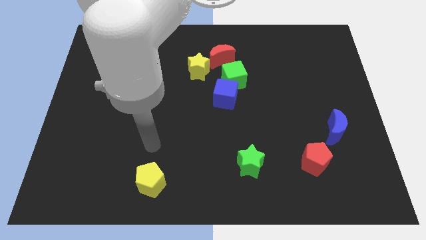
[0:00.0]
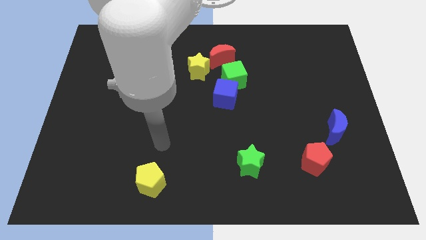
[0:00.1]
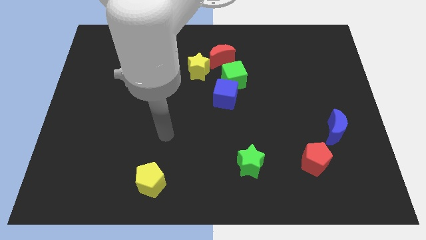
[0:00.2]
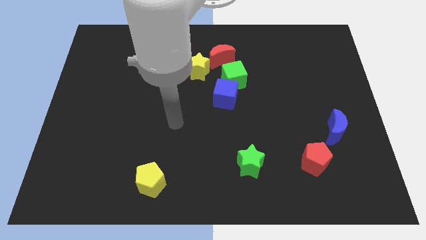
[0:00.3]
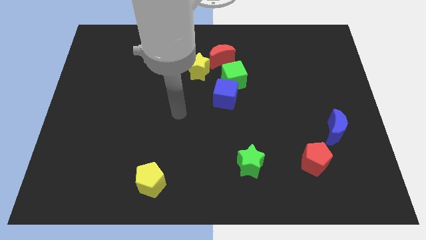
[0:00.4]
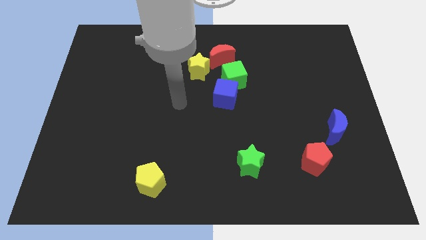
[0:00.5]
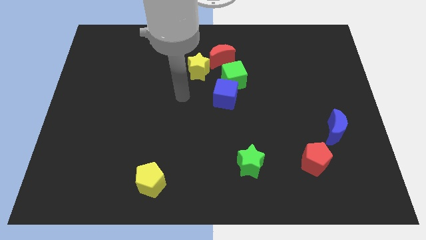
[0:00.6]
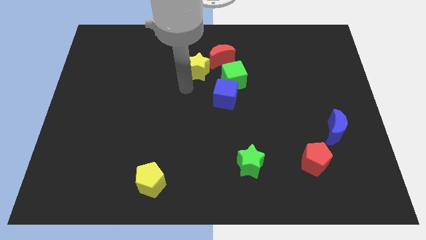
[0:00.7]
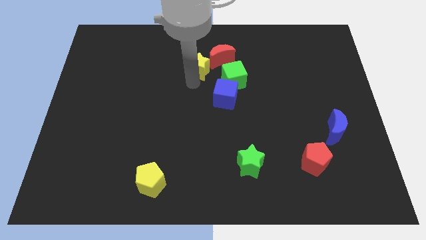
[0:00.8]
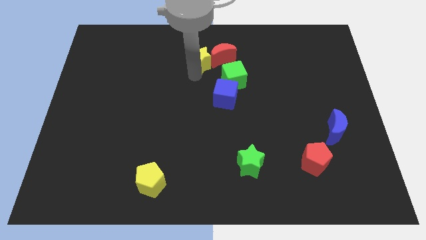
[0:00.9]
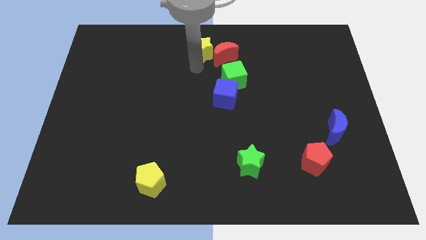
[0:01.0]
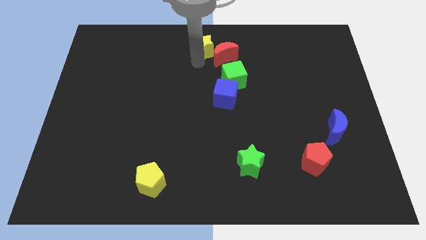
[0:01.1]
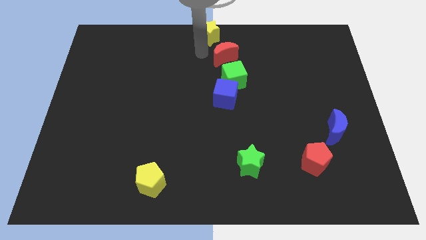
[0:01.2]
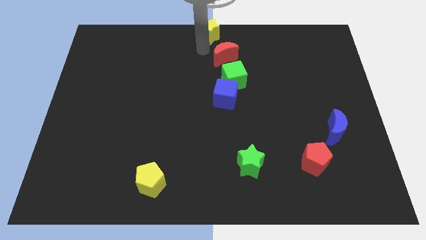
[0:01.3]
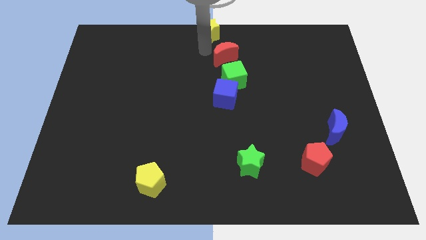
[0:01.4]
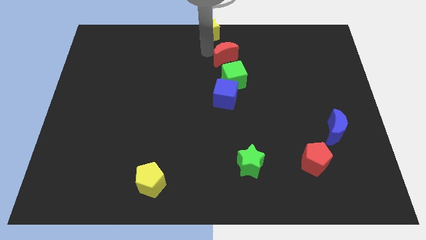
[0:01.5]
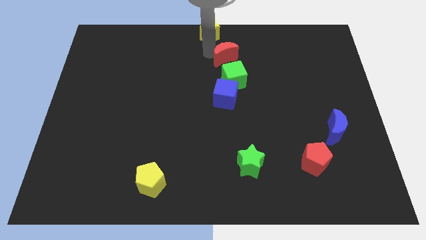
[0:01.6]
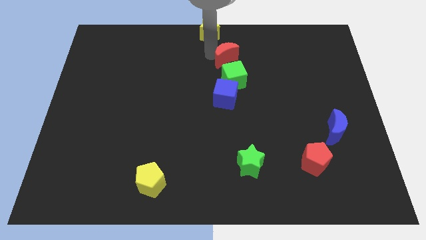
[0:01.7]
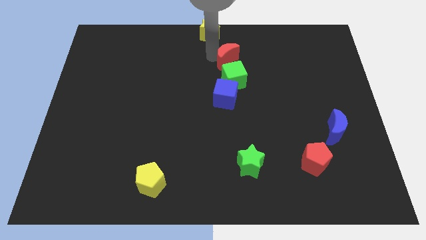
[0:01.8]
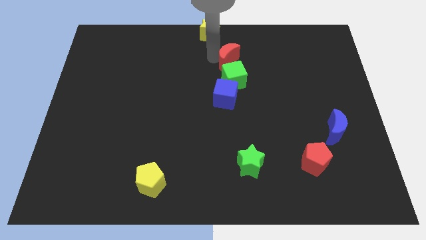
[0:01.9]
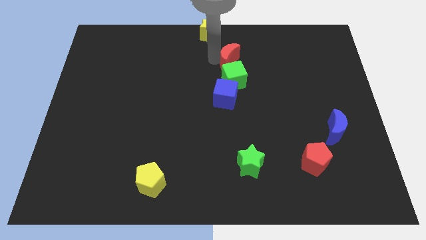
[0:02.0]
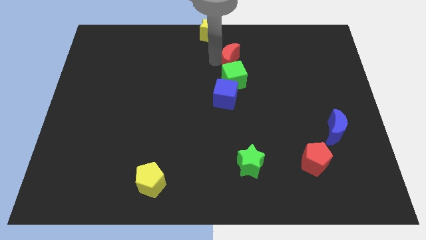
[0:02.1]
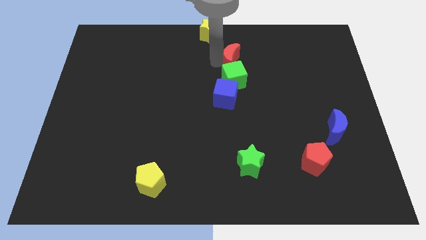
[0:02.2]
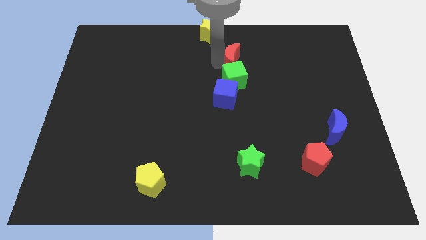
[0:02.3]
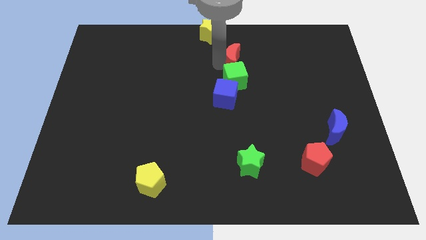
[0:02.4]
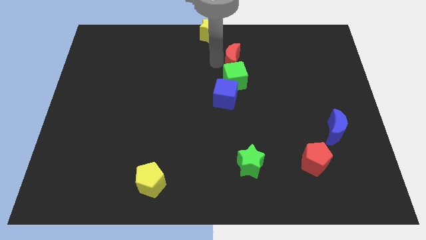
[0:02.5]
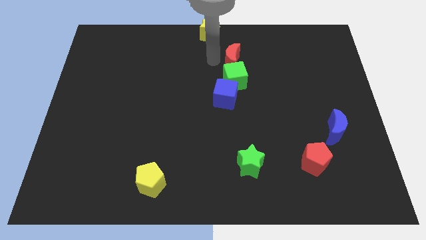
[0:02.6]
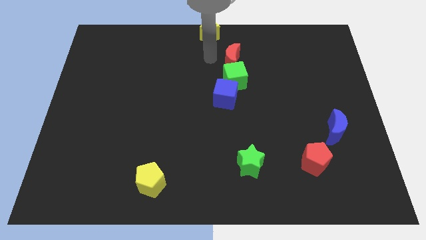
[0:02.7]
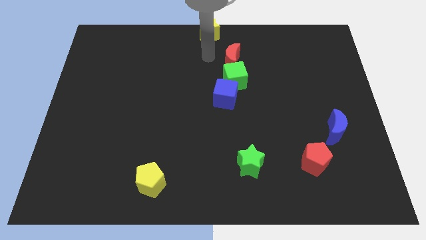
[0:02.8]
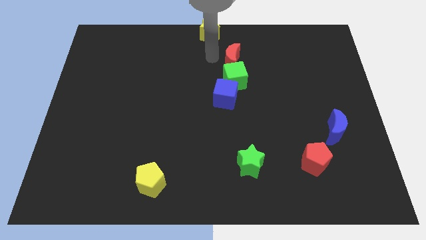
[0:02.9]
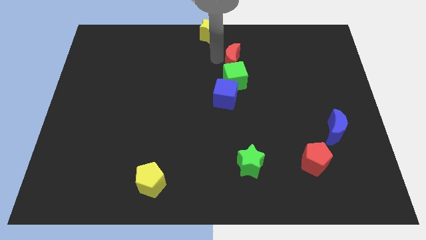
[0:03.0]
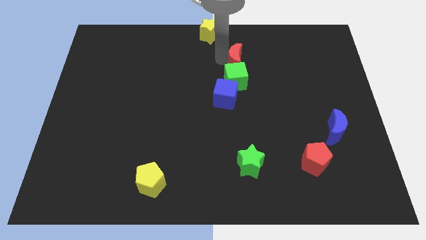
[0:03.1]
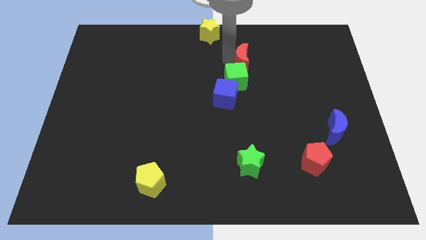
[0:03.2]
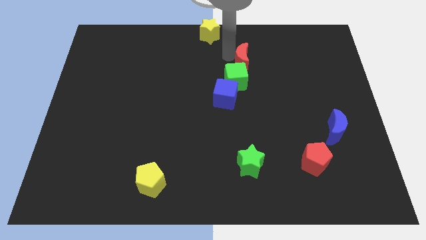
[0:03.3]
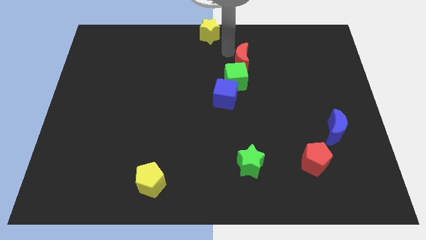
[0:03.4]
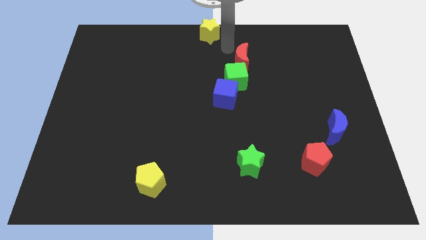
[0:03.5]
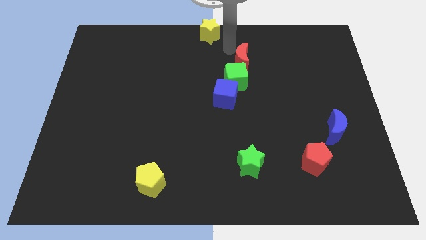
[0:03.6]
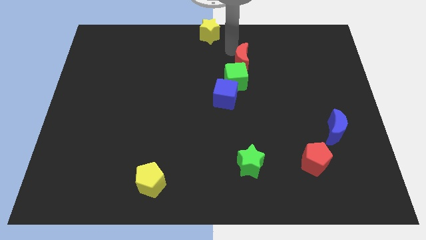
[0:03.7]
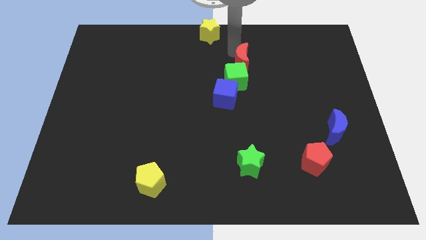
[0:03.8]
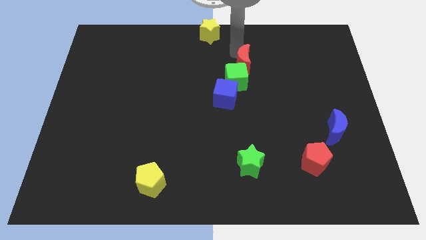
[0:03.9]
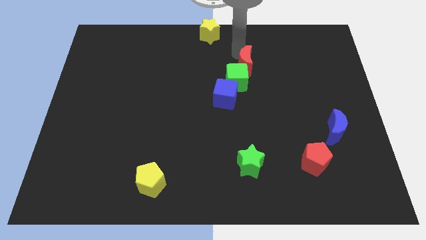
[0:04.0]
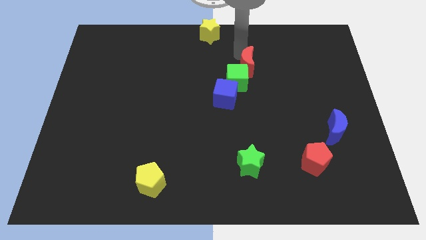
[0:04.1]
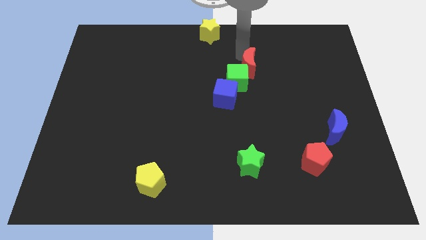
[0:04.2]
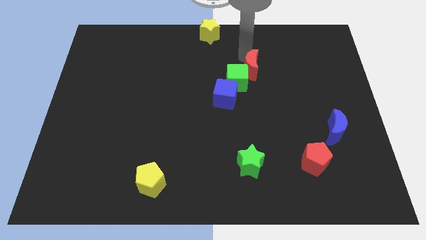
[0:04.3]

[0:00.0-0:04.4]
slightly move the red moon diagonally down and to the right

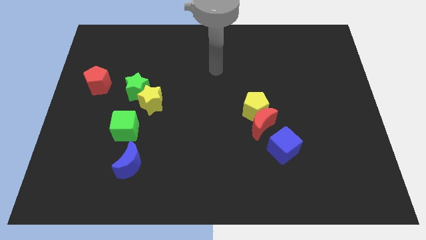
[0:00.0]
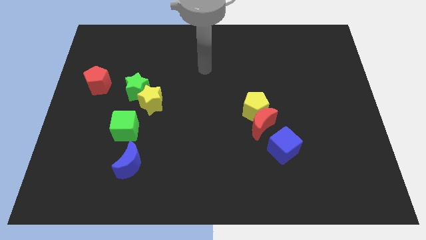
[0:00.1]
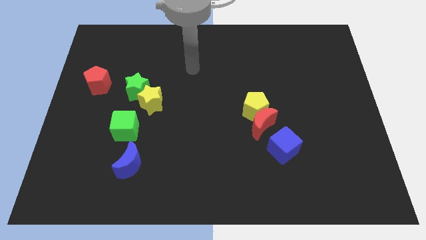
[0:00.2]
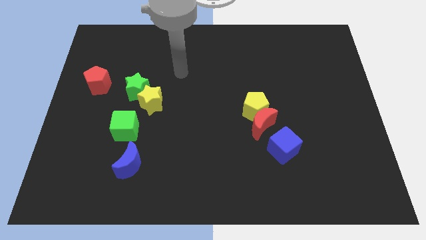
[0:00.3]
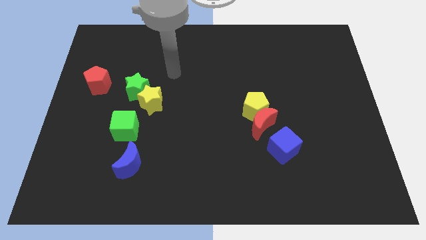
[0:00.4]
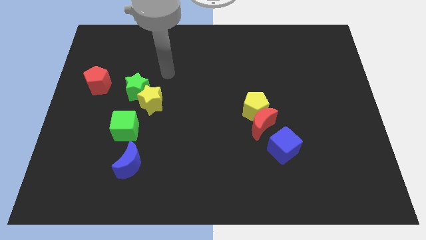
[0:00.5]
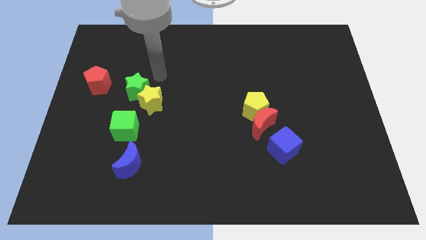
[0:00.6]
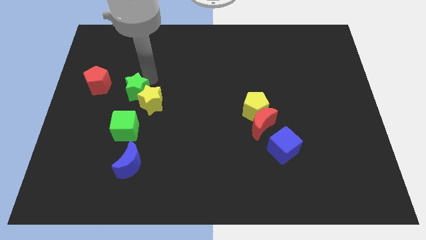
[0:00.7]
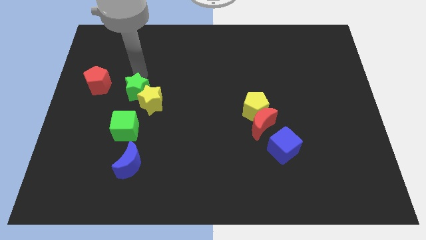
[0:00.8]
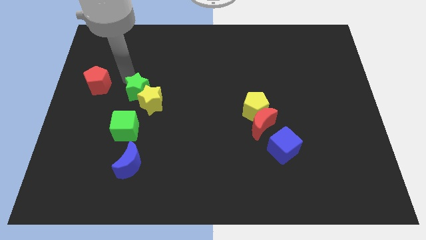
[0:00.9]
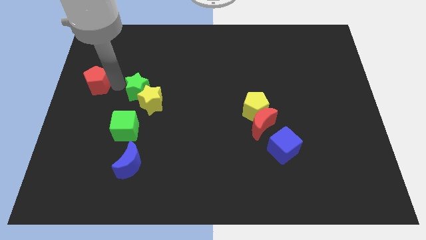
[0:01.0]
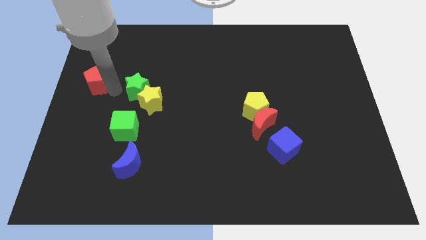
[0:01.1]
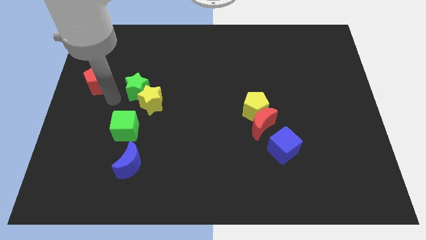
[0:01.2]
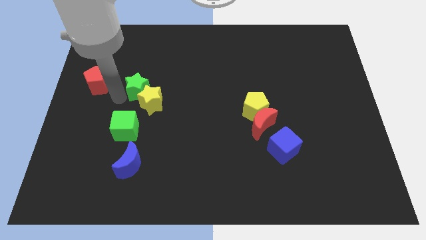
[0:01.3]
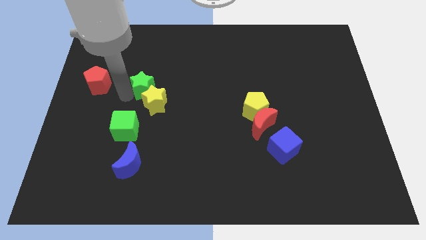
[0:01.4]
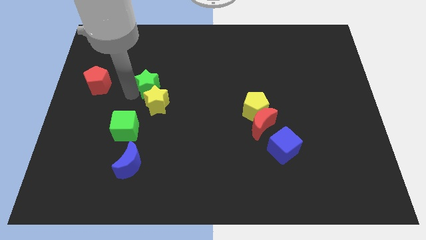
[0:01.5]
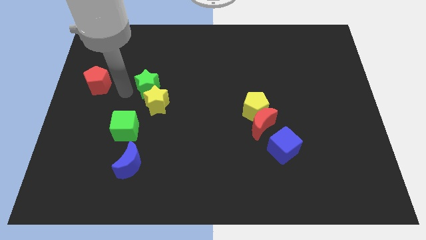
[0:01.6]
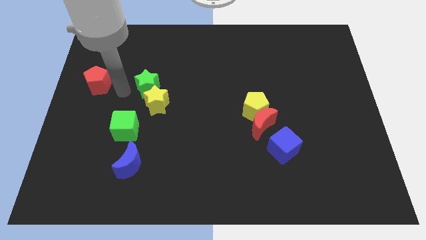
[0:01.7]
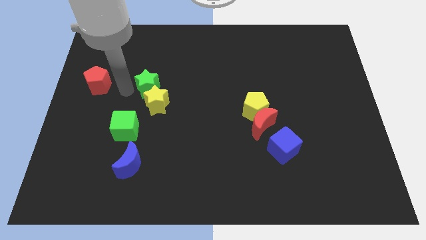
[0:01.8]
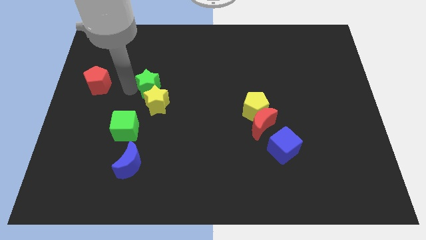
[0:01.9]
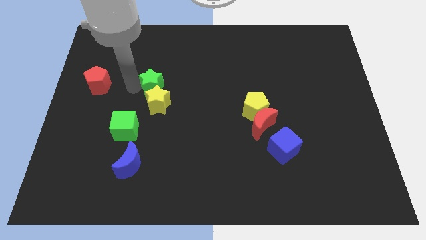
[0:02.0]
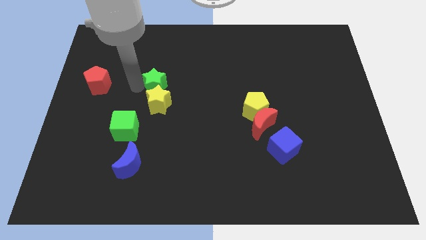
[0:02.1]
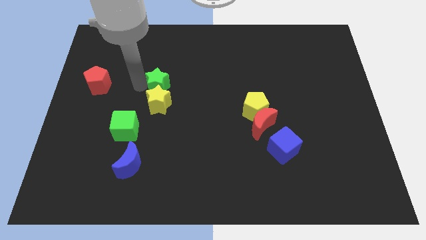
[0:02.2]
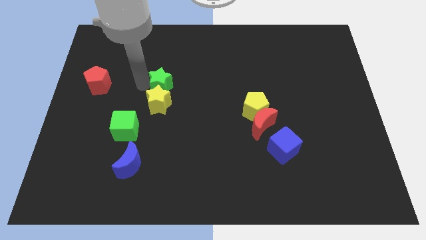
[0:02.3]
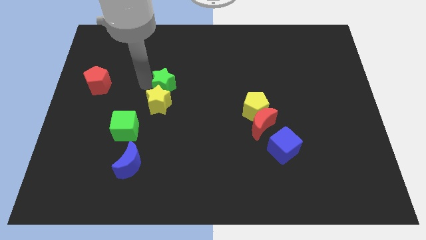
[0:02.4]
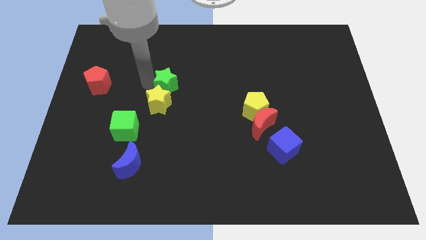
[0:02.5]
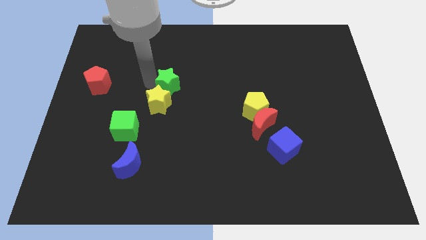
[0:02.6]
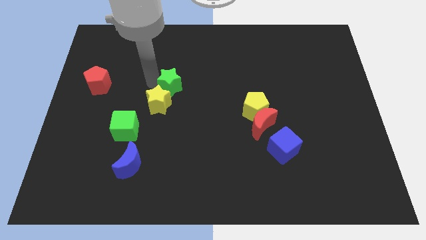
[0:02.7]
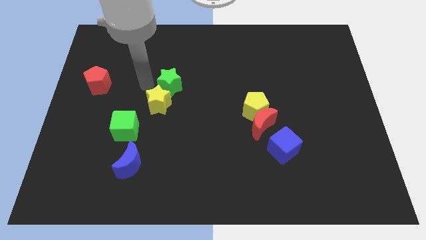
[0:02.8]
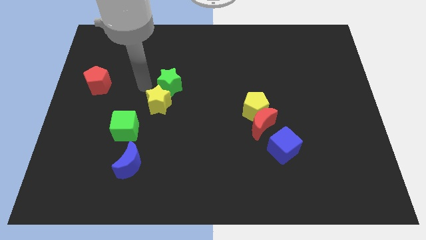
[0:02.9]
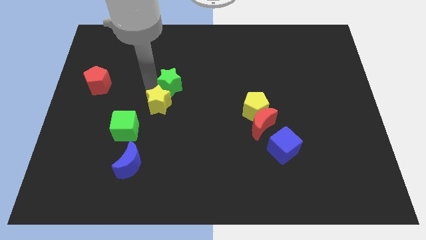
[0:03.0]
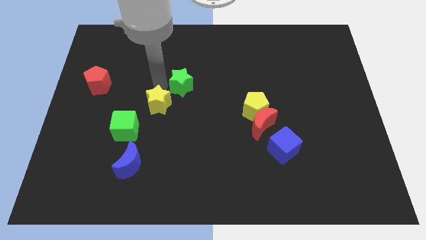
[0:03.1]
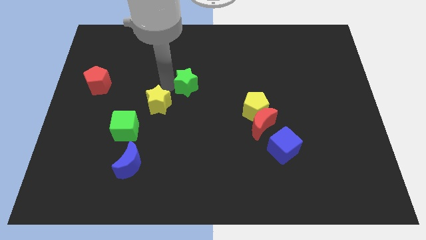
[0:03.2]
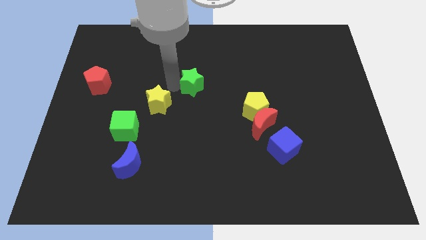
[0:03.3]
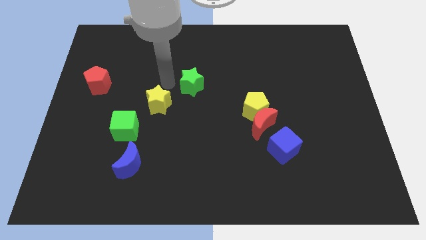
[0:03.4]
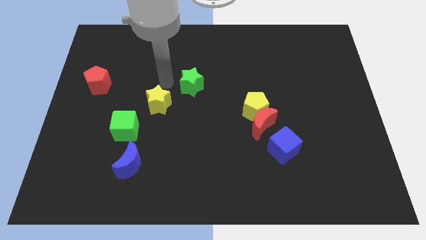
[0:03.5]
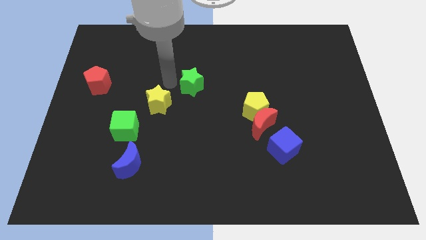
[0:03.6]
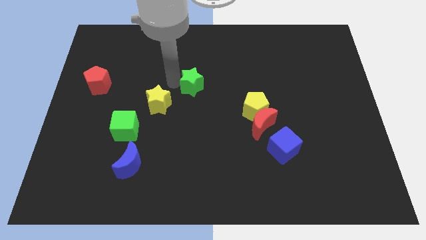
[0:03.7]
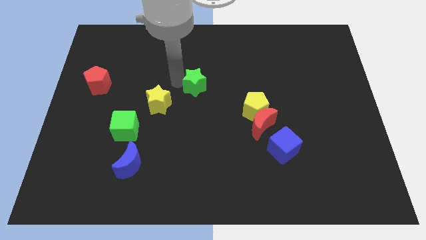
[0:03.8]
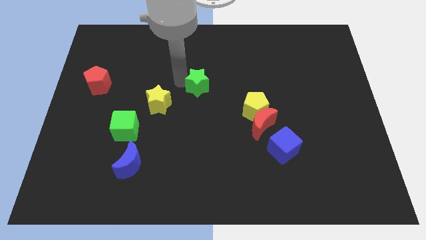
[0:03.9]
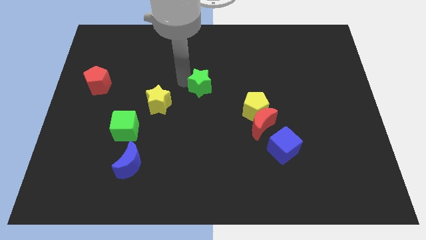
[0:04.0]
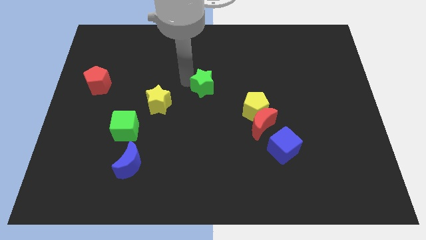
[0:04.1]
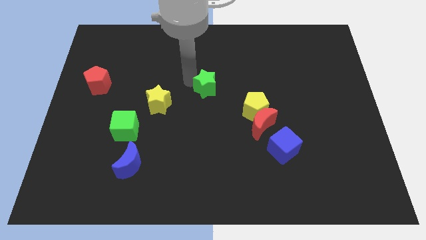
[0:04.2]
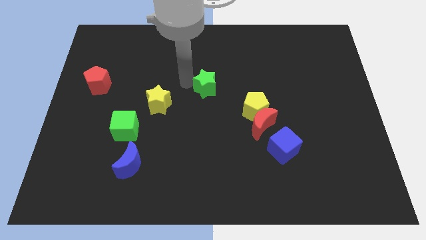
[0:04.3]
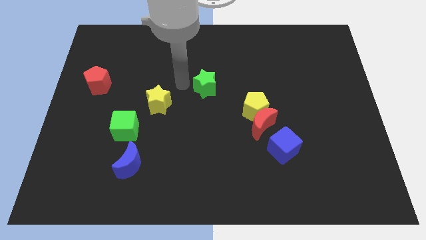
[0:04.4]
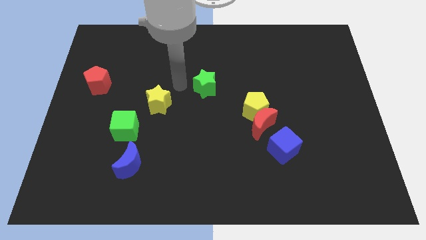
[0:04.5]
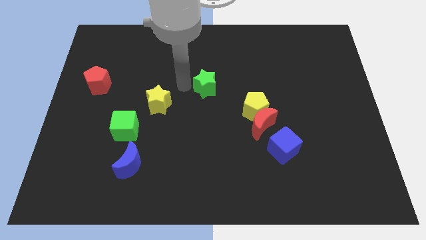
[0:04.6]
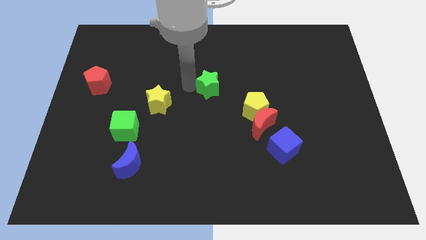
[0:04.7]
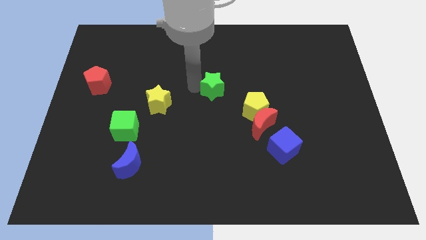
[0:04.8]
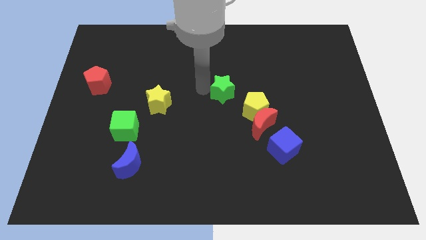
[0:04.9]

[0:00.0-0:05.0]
slide the green star right
